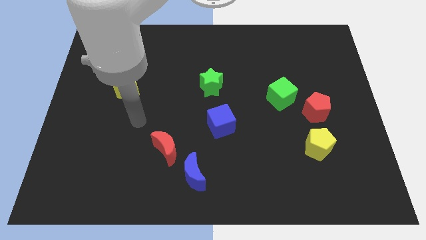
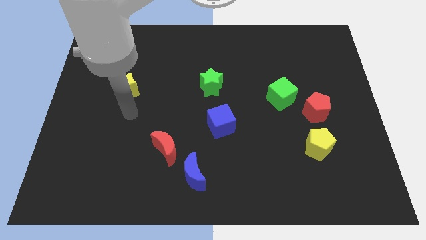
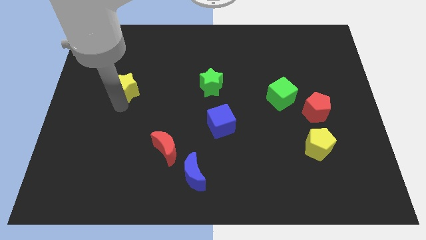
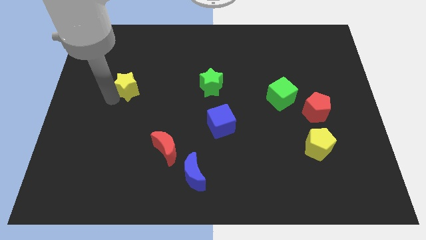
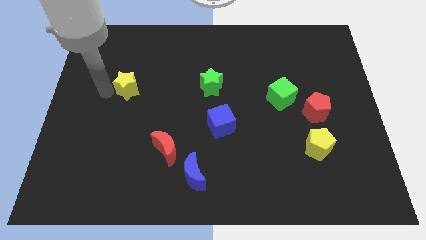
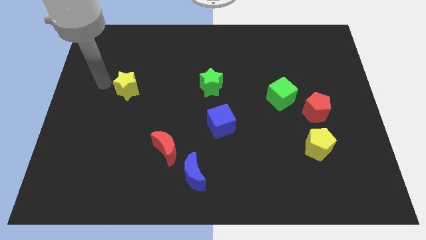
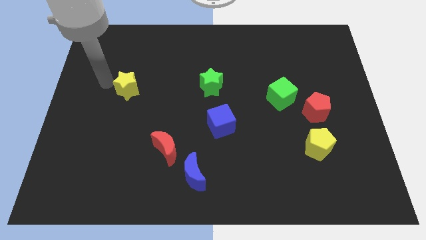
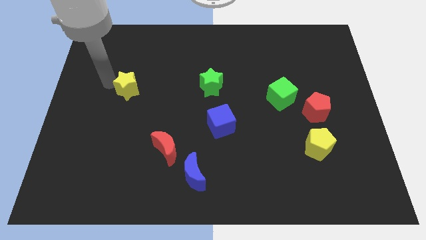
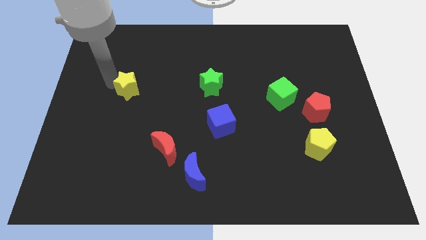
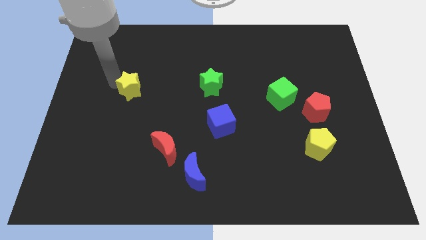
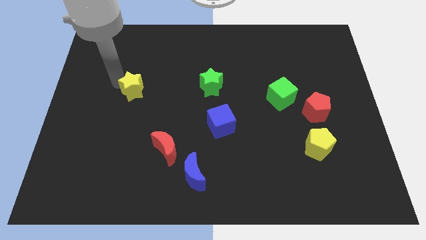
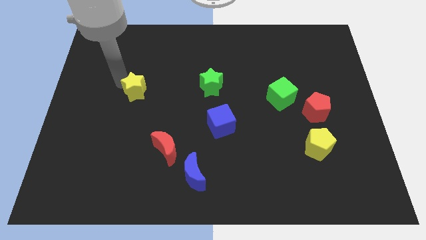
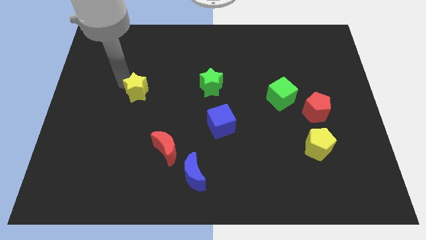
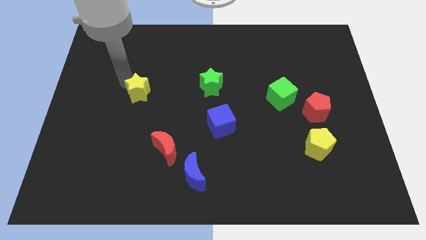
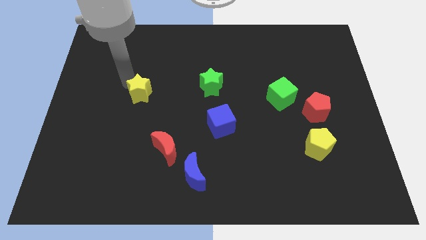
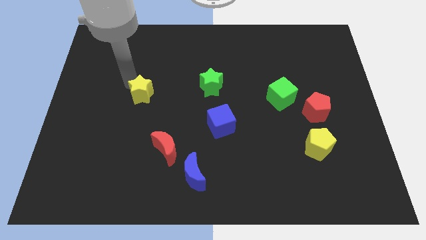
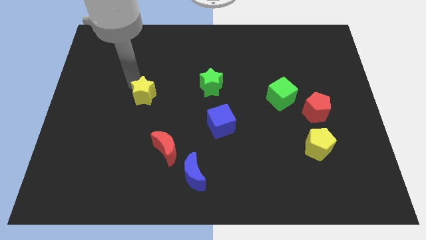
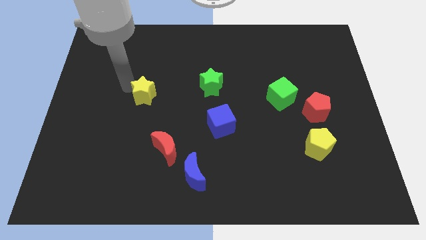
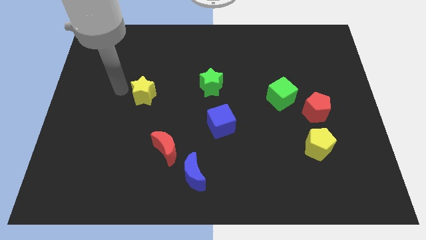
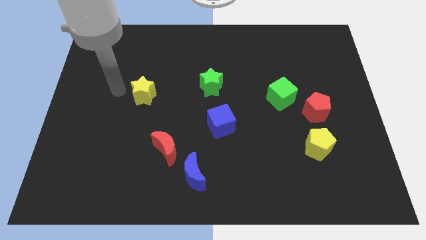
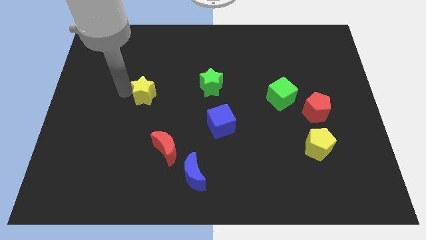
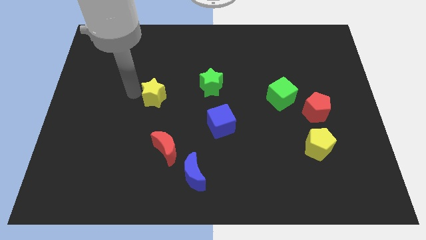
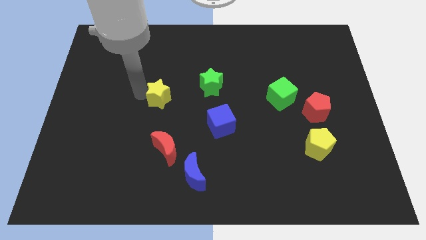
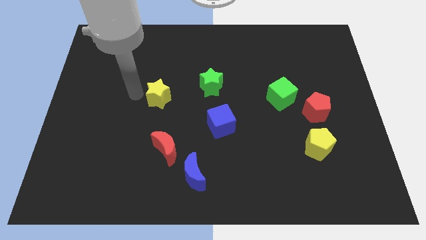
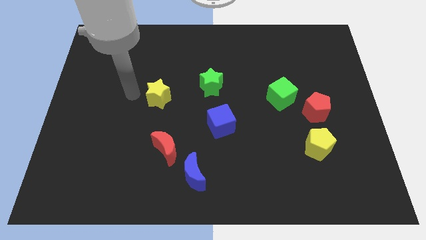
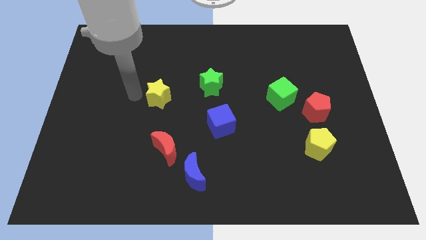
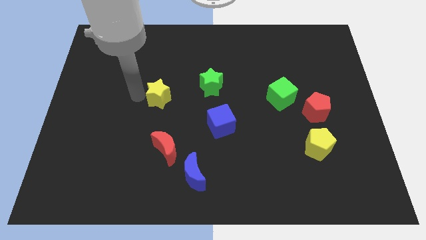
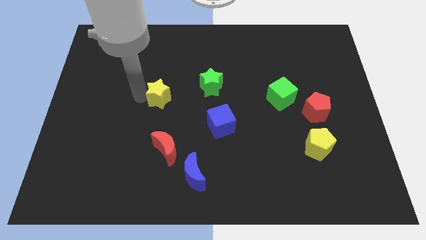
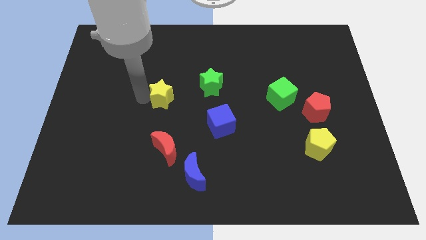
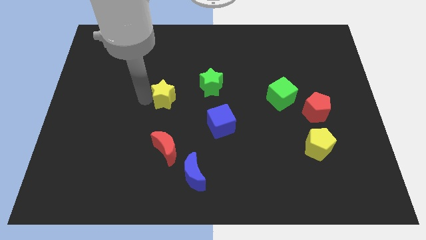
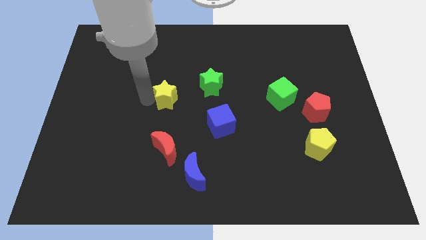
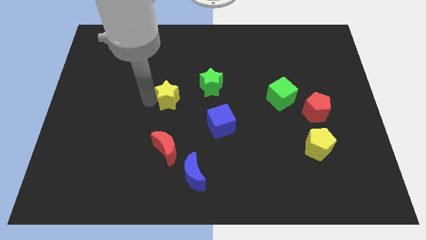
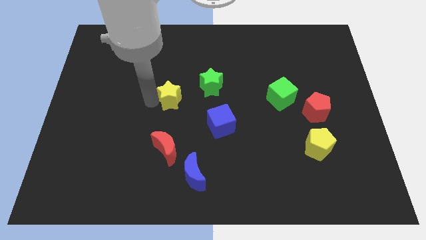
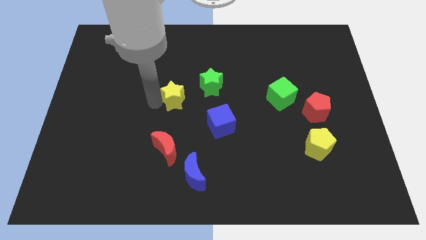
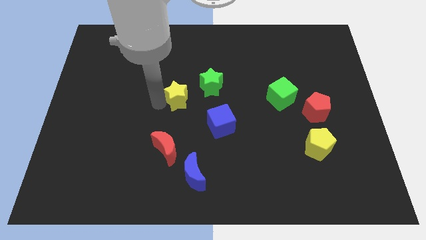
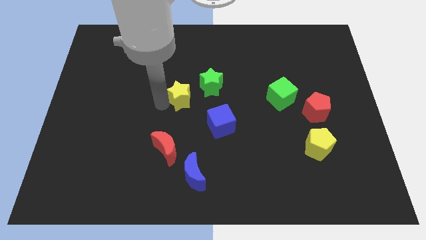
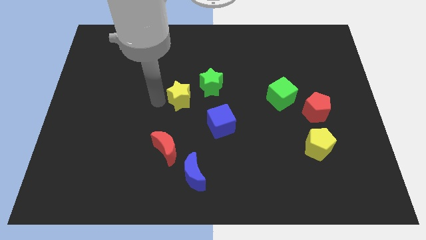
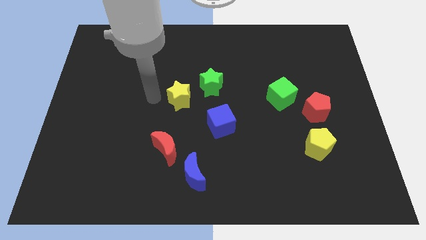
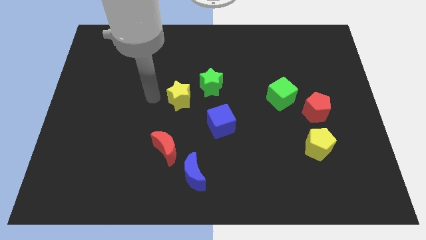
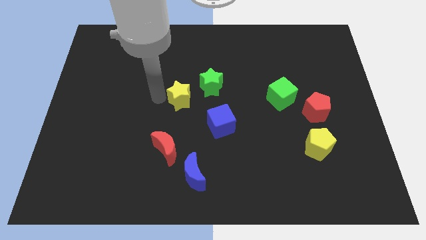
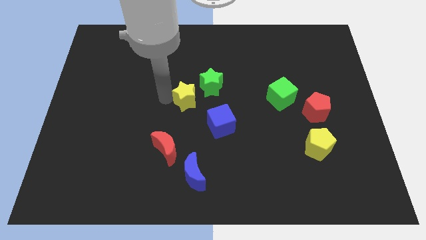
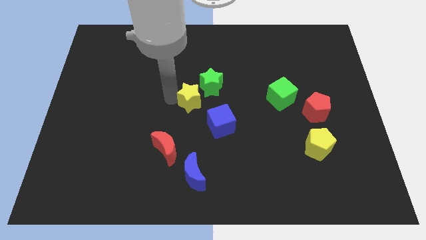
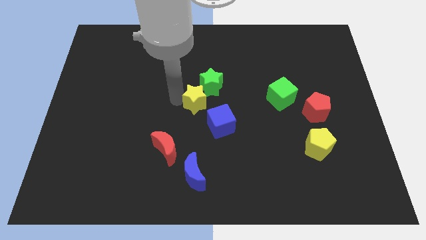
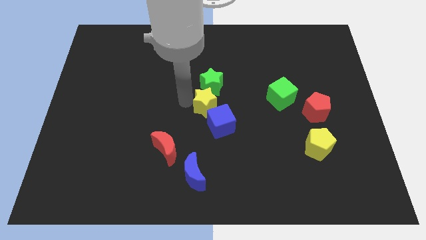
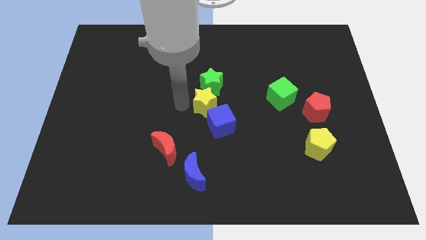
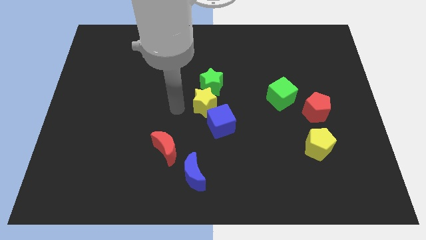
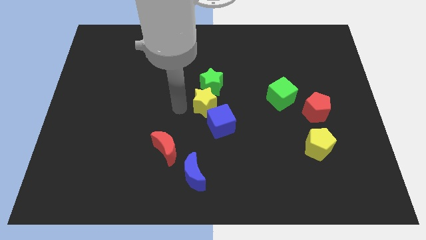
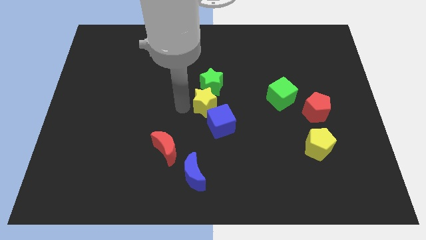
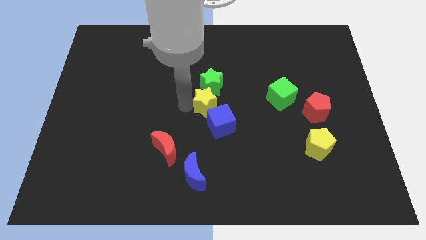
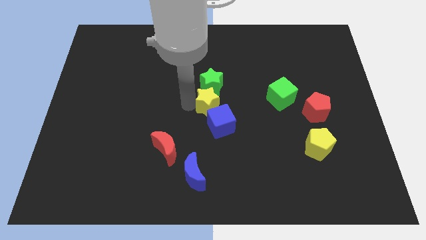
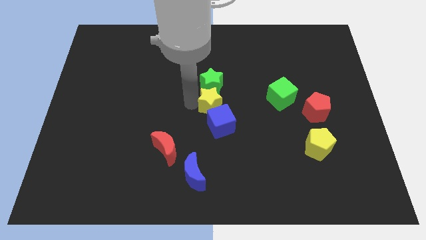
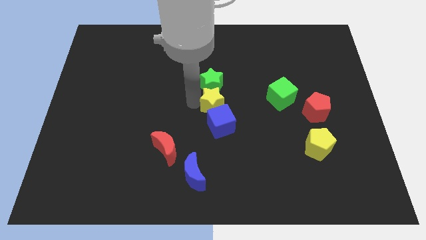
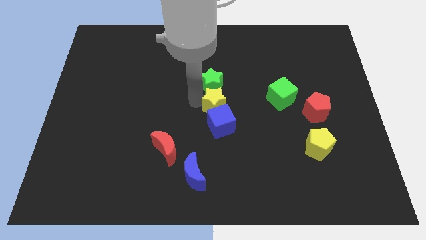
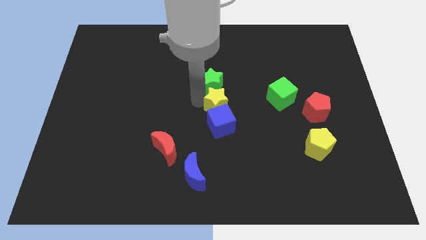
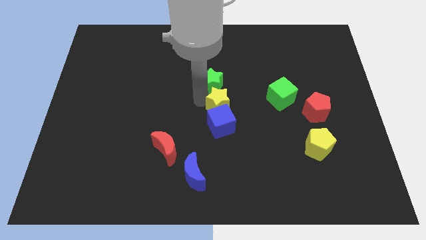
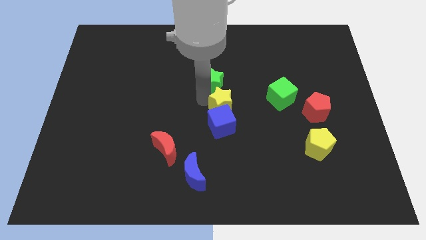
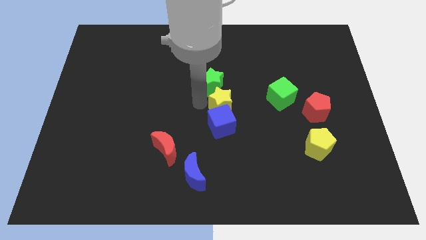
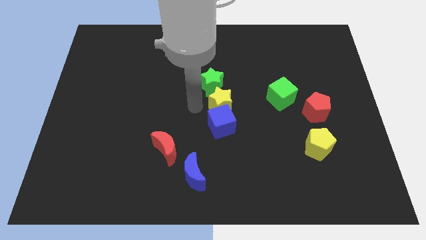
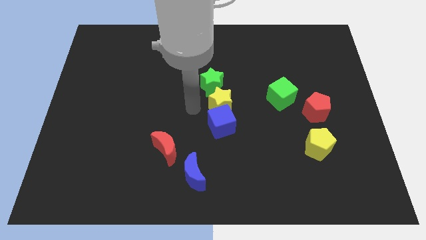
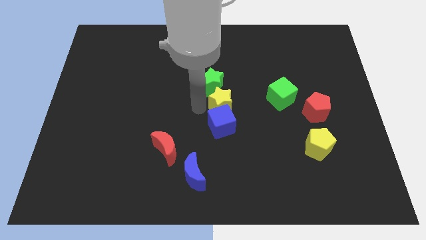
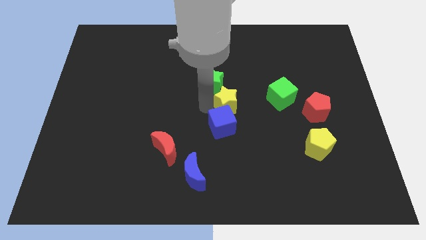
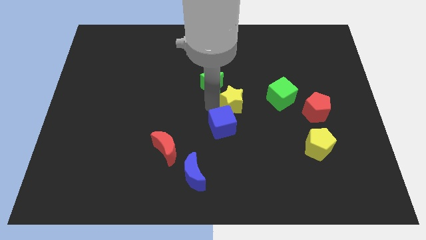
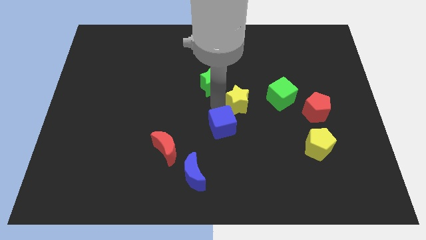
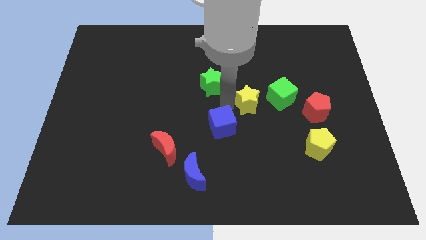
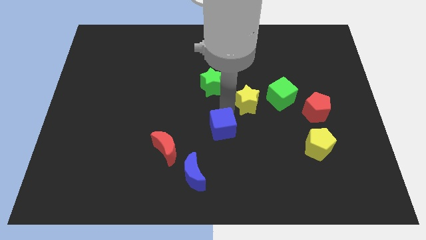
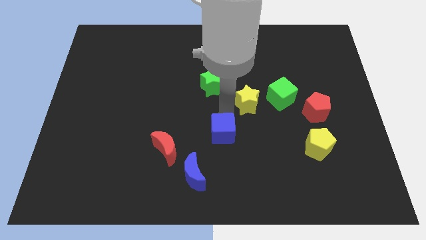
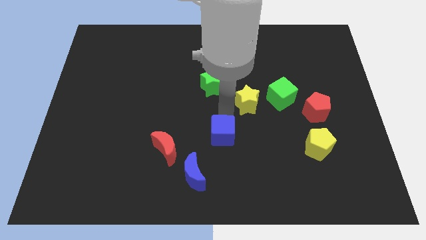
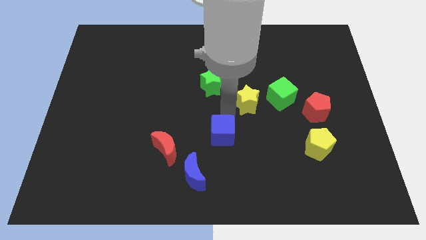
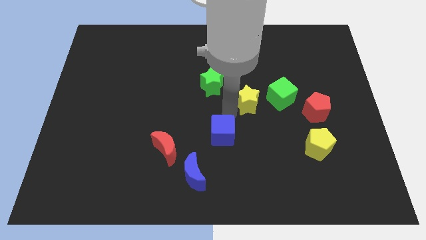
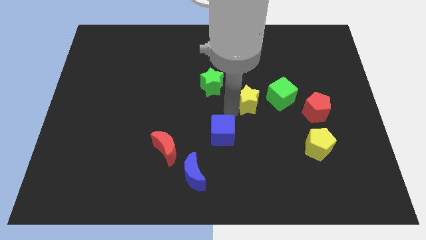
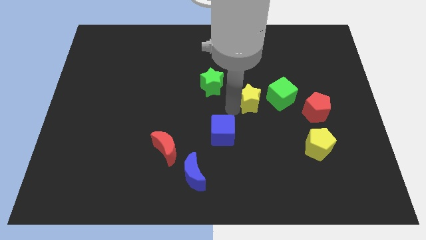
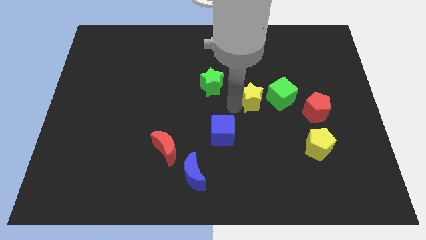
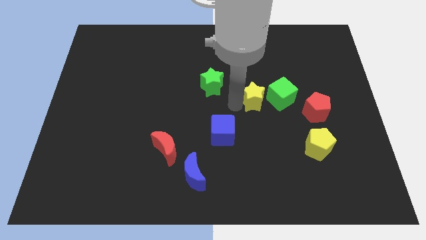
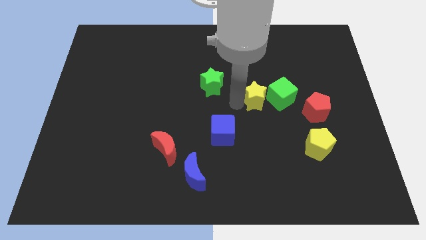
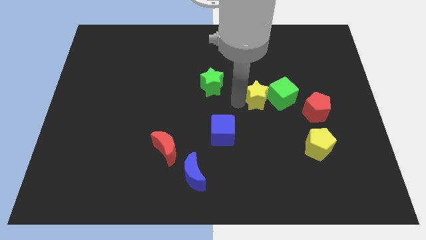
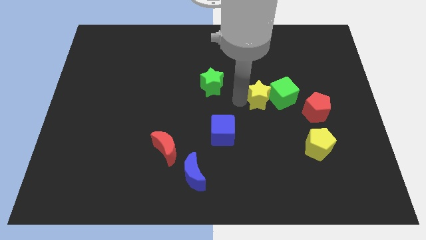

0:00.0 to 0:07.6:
put the yellow star towards the green cube
